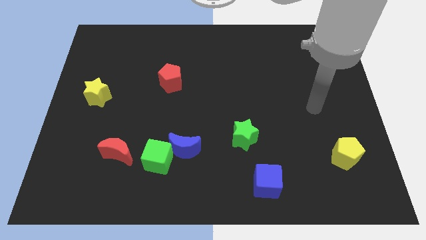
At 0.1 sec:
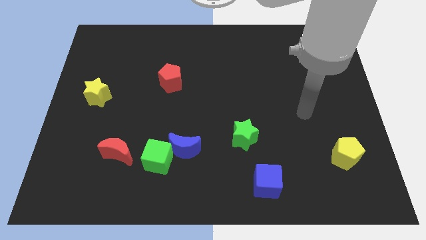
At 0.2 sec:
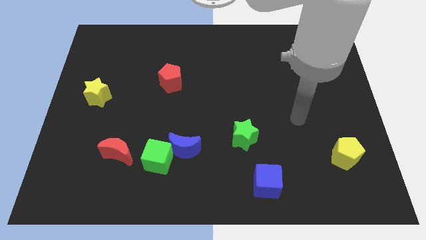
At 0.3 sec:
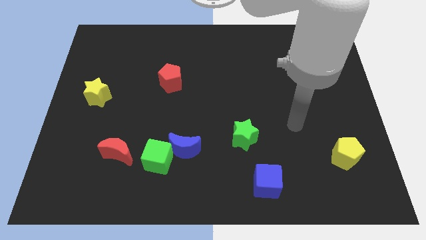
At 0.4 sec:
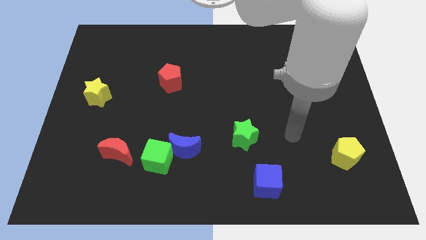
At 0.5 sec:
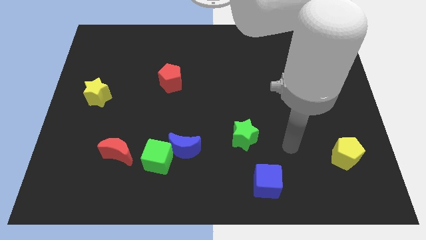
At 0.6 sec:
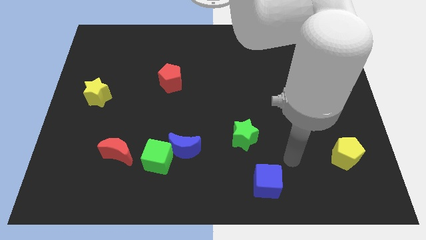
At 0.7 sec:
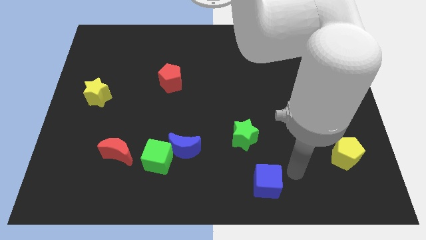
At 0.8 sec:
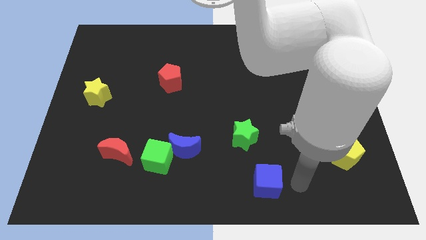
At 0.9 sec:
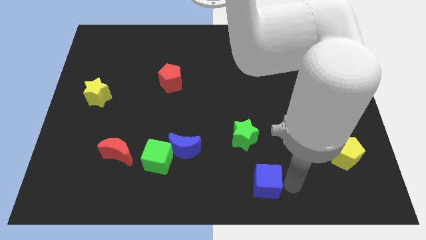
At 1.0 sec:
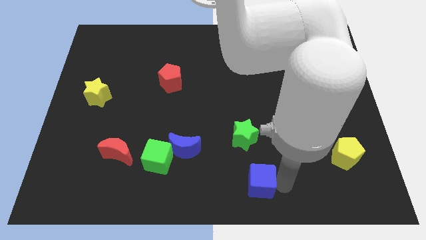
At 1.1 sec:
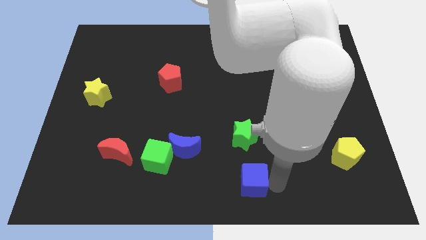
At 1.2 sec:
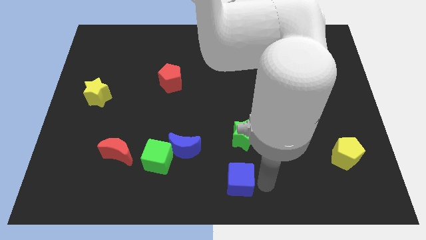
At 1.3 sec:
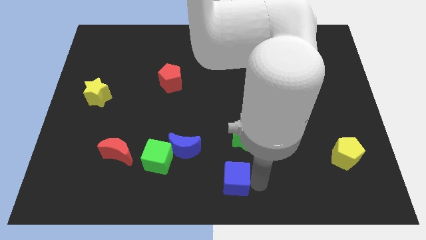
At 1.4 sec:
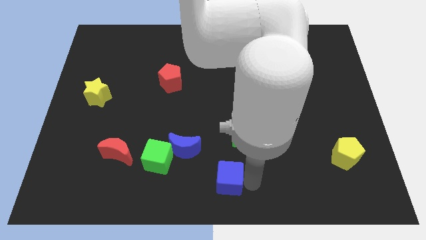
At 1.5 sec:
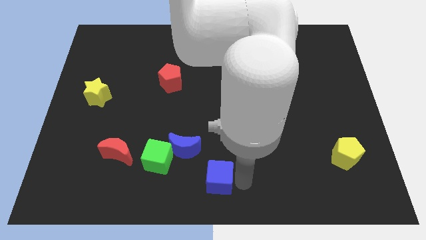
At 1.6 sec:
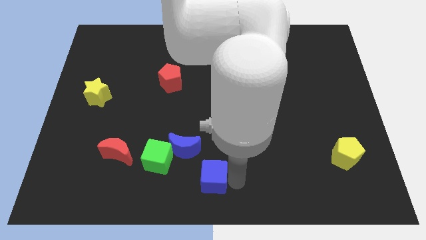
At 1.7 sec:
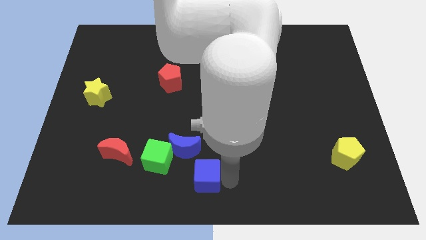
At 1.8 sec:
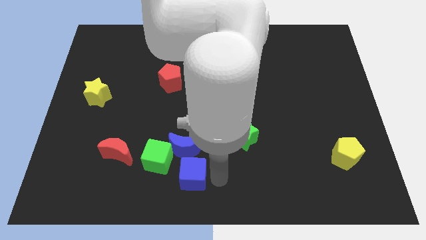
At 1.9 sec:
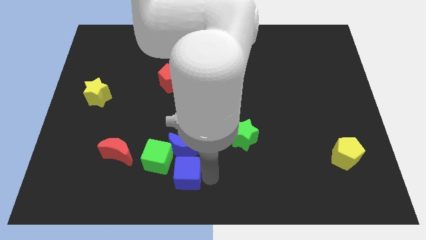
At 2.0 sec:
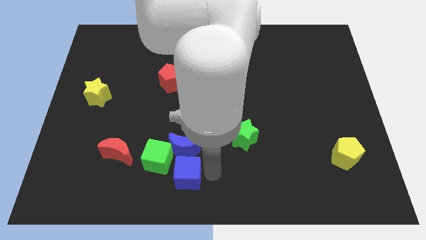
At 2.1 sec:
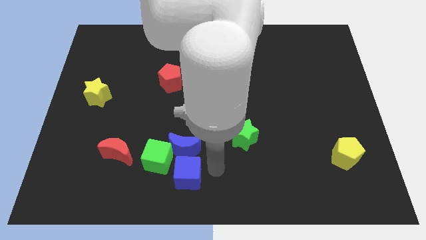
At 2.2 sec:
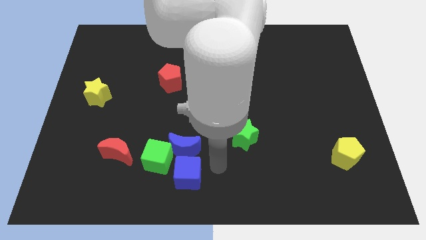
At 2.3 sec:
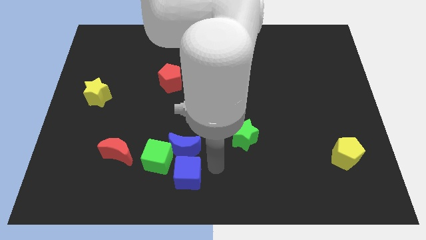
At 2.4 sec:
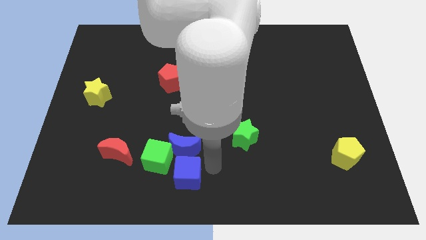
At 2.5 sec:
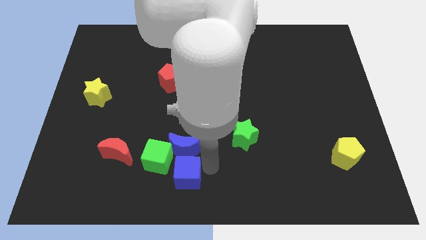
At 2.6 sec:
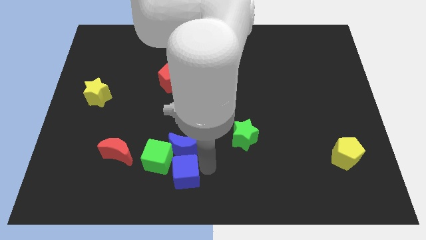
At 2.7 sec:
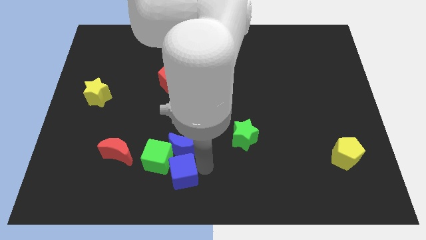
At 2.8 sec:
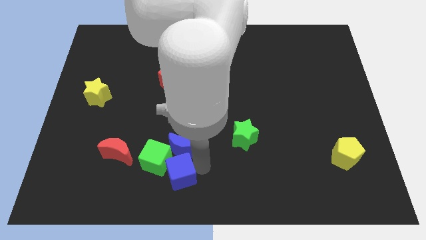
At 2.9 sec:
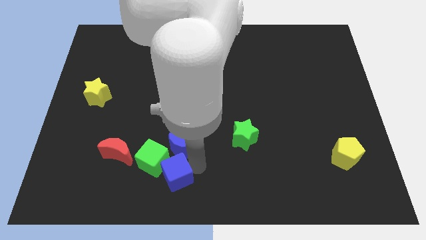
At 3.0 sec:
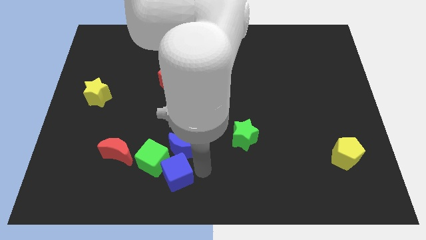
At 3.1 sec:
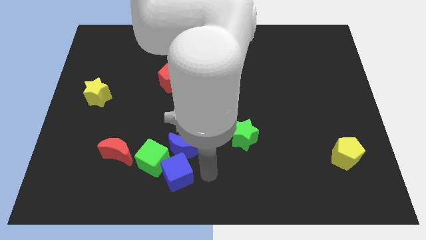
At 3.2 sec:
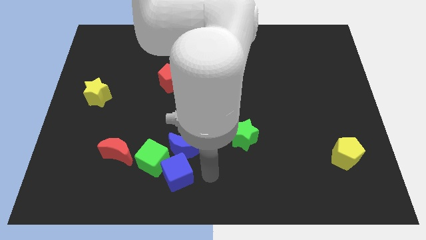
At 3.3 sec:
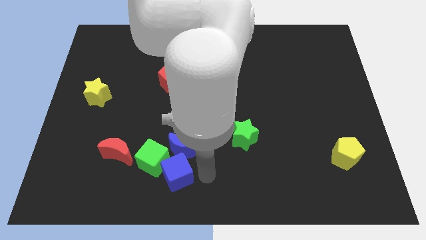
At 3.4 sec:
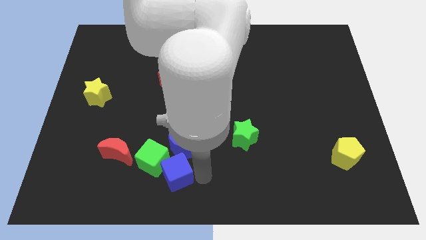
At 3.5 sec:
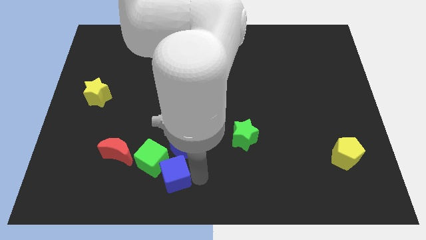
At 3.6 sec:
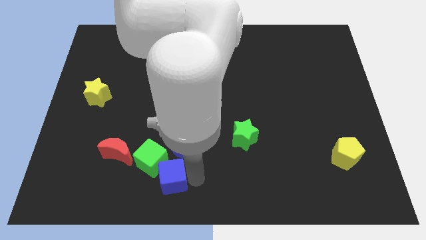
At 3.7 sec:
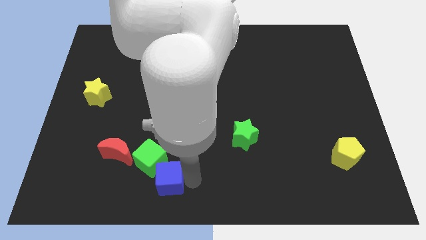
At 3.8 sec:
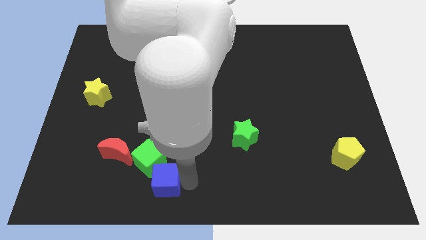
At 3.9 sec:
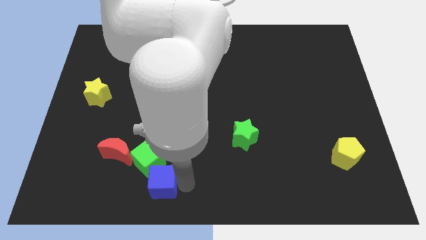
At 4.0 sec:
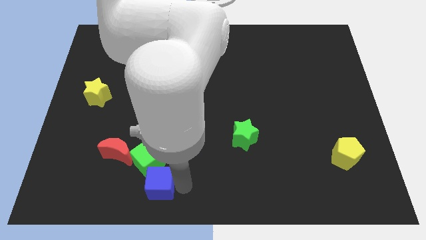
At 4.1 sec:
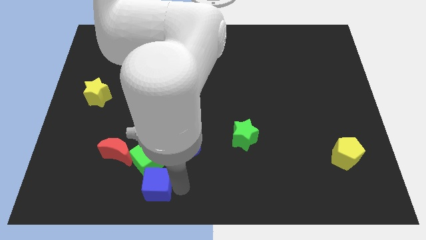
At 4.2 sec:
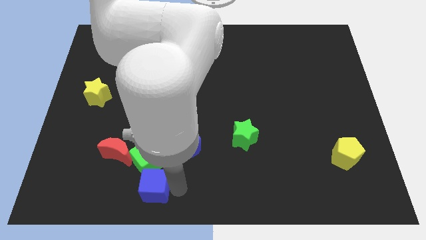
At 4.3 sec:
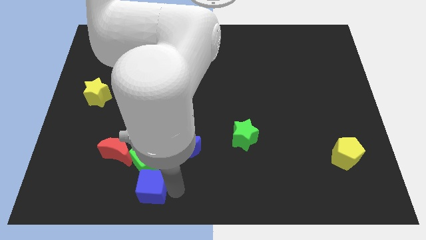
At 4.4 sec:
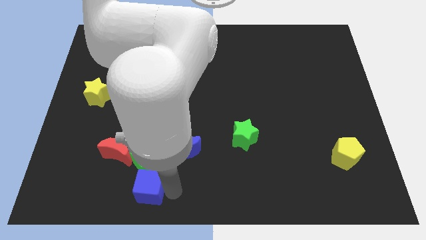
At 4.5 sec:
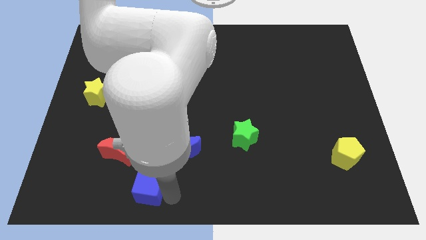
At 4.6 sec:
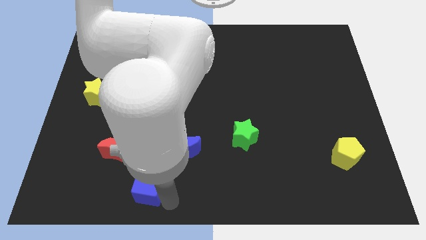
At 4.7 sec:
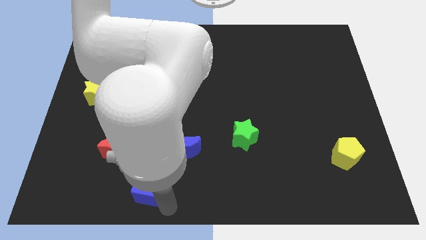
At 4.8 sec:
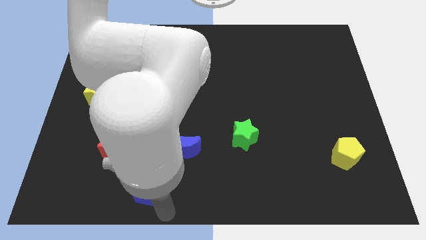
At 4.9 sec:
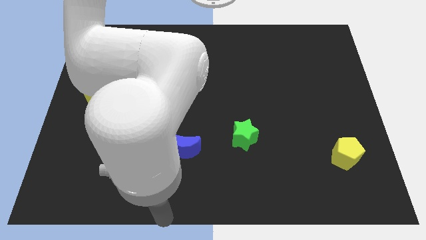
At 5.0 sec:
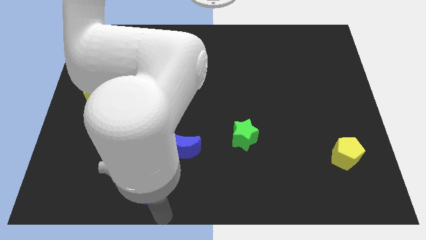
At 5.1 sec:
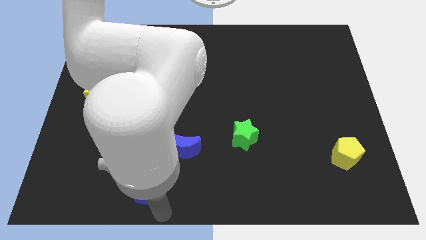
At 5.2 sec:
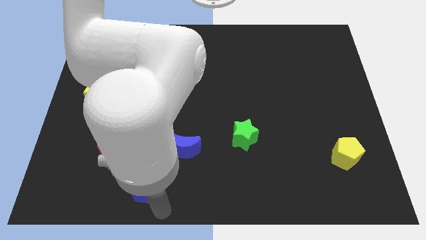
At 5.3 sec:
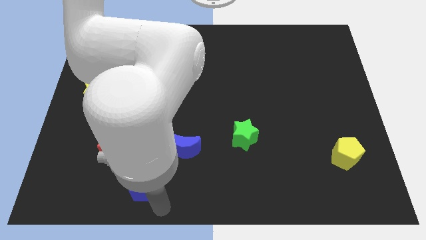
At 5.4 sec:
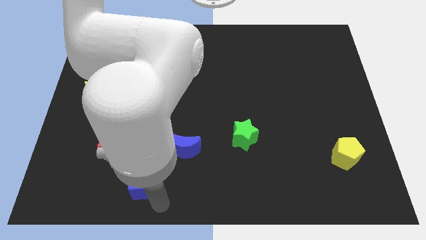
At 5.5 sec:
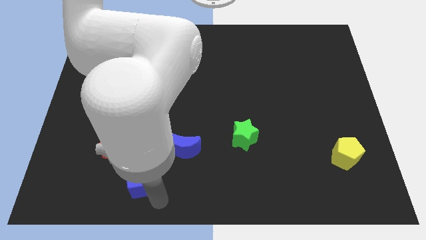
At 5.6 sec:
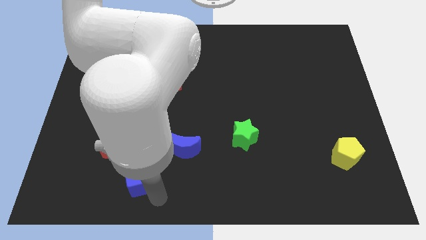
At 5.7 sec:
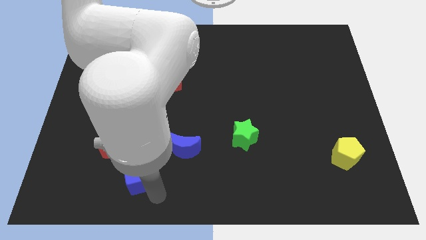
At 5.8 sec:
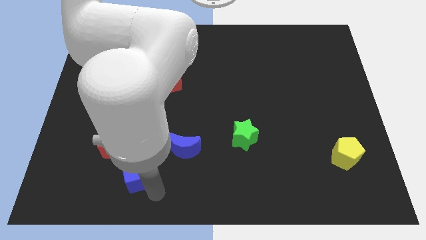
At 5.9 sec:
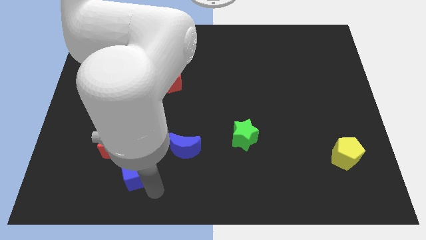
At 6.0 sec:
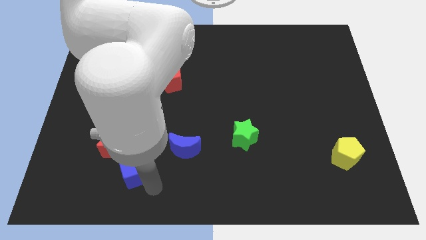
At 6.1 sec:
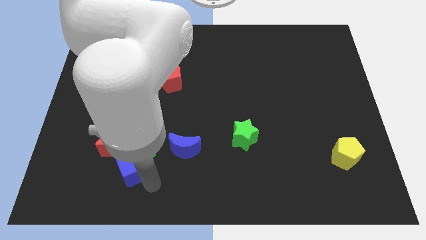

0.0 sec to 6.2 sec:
put the blue cube next to the red moon
